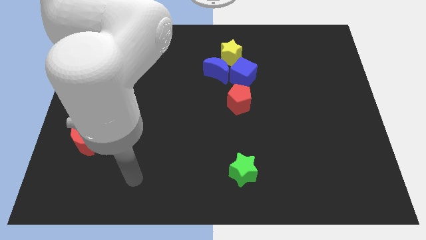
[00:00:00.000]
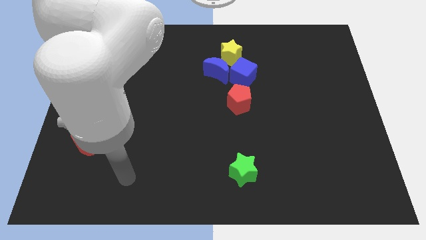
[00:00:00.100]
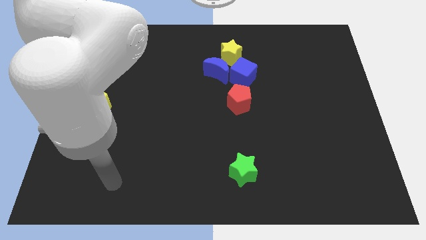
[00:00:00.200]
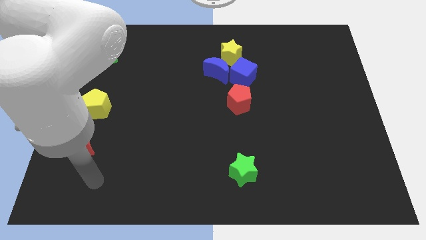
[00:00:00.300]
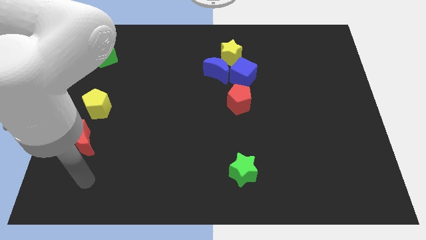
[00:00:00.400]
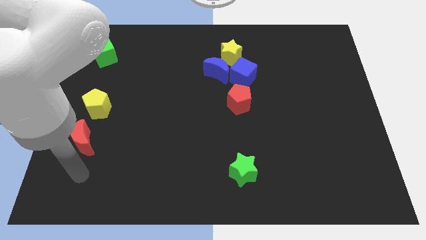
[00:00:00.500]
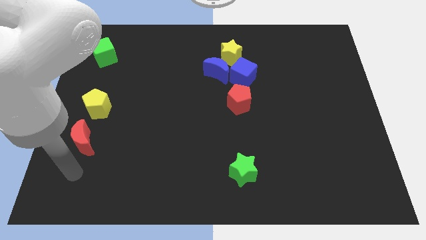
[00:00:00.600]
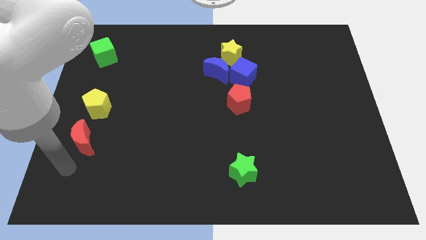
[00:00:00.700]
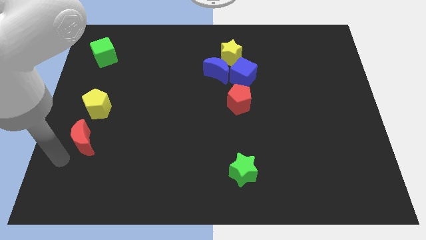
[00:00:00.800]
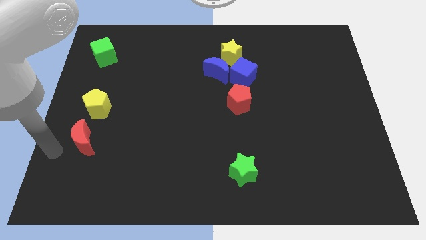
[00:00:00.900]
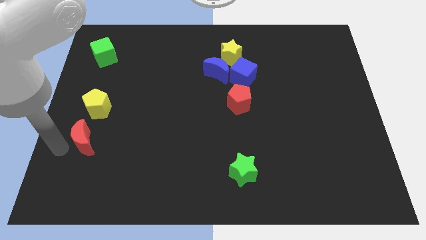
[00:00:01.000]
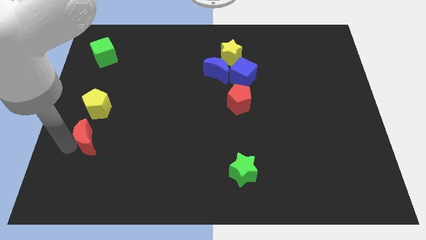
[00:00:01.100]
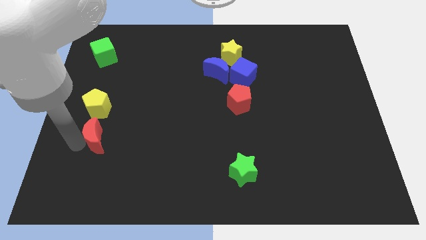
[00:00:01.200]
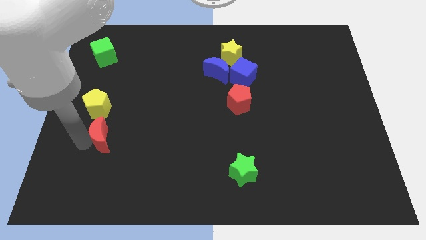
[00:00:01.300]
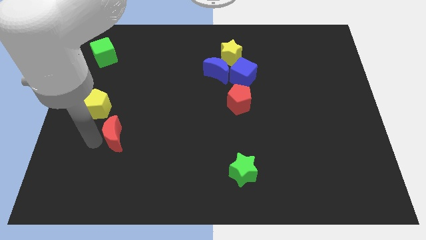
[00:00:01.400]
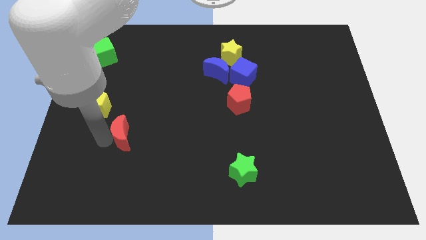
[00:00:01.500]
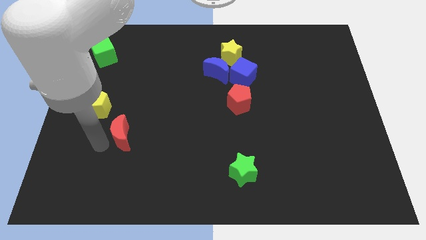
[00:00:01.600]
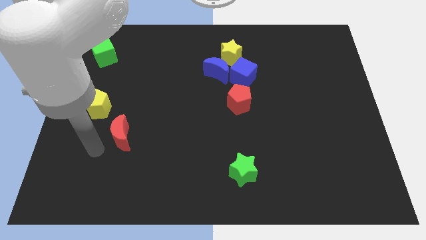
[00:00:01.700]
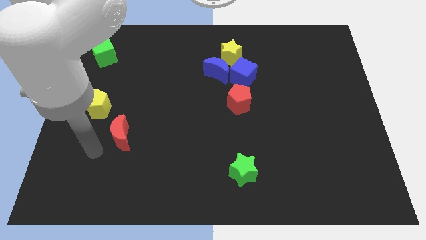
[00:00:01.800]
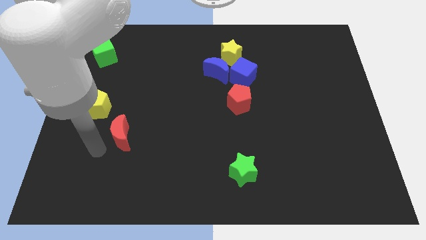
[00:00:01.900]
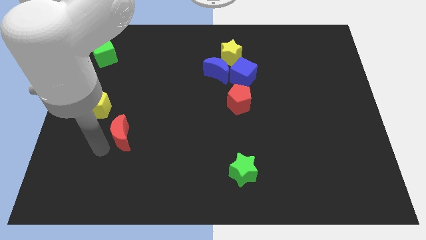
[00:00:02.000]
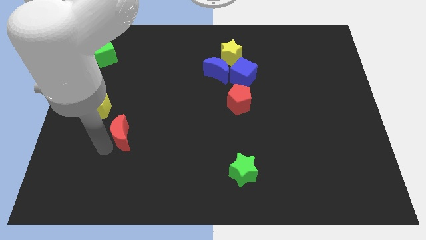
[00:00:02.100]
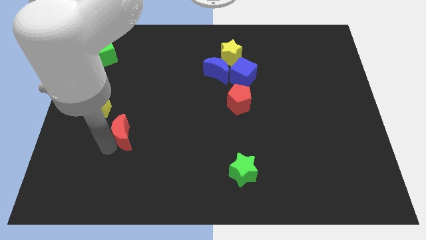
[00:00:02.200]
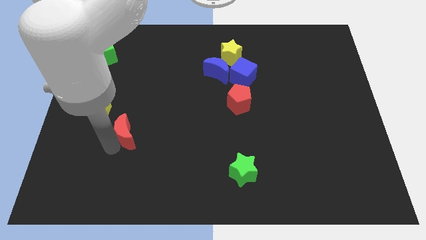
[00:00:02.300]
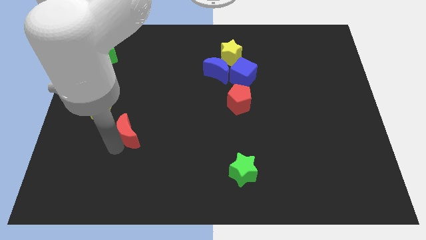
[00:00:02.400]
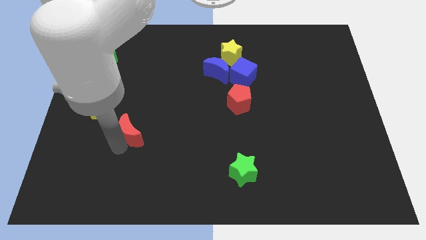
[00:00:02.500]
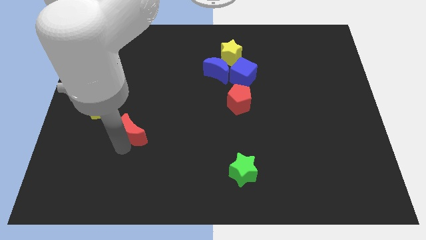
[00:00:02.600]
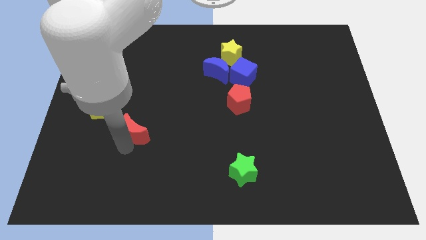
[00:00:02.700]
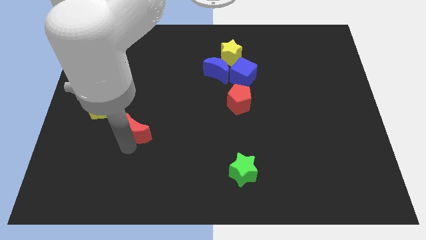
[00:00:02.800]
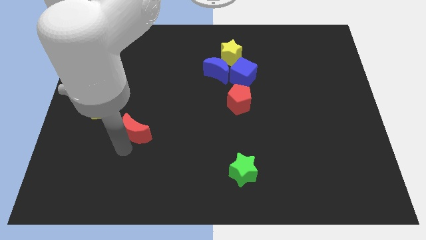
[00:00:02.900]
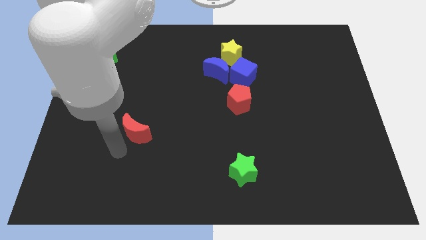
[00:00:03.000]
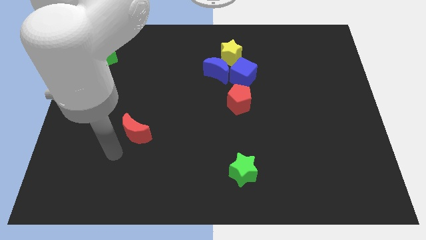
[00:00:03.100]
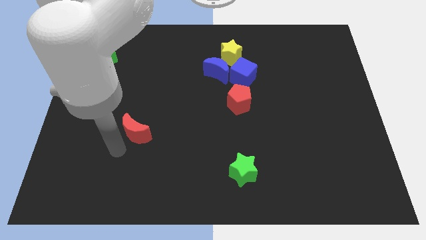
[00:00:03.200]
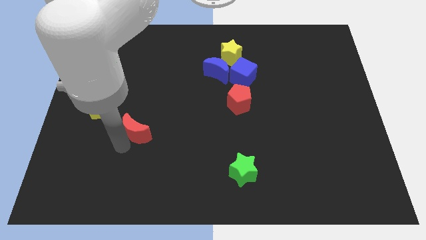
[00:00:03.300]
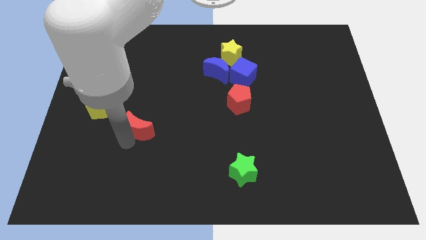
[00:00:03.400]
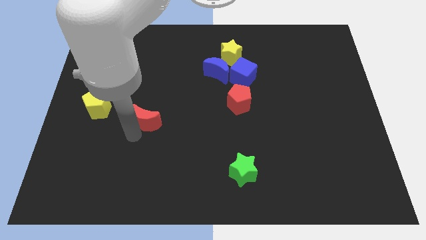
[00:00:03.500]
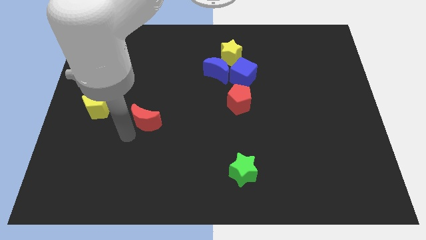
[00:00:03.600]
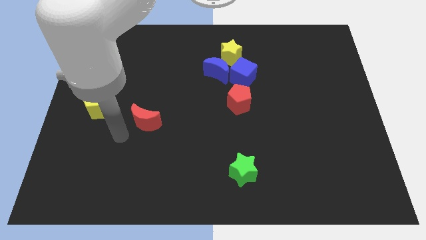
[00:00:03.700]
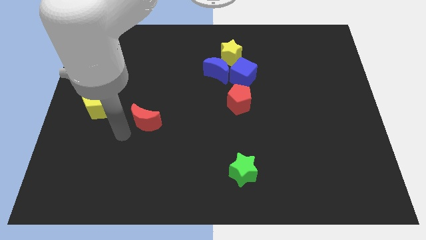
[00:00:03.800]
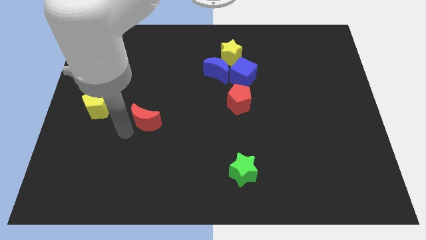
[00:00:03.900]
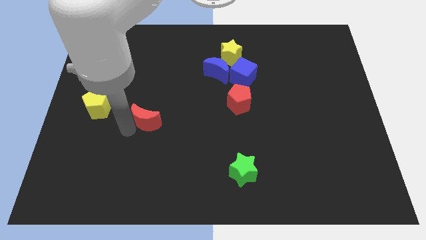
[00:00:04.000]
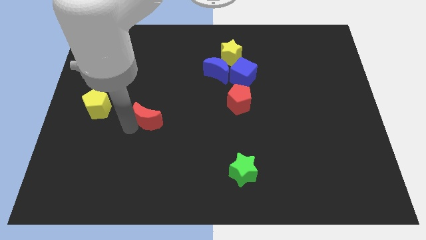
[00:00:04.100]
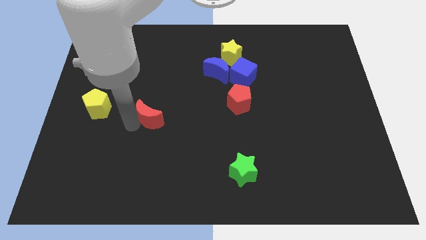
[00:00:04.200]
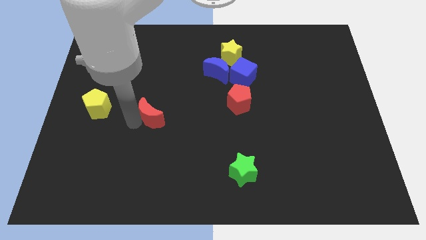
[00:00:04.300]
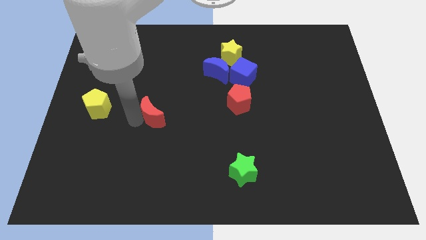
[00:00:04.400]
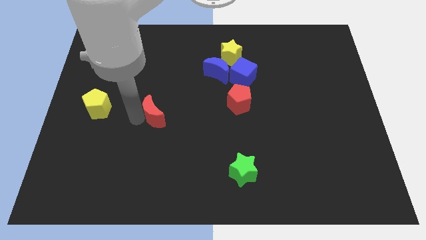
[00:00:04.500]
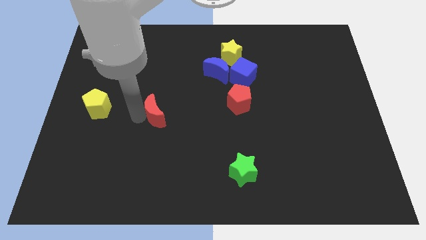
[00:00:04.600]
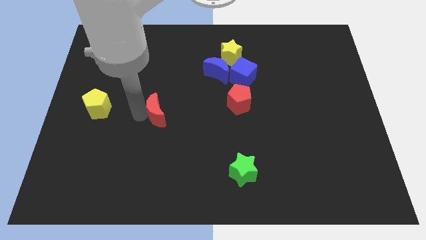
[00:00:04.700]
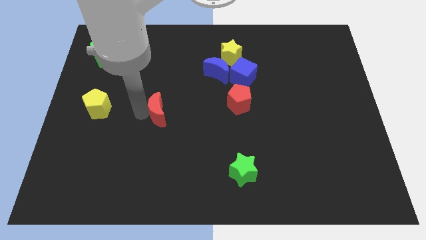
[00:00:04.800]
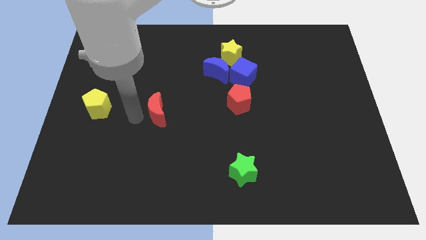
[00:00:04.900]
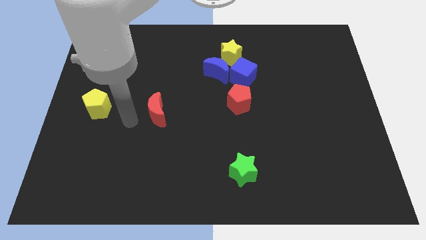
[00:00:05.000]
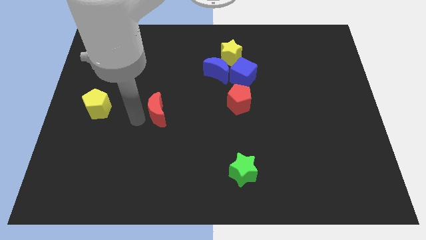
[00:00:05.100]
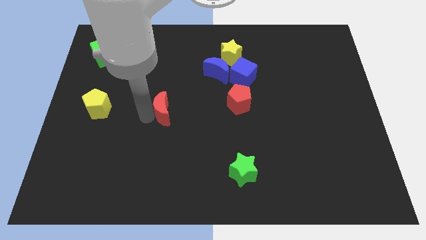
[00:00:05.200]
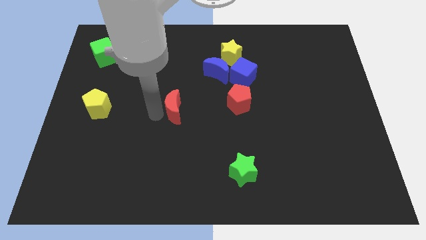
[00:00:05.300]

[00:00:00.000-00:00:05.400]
push the red moon just left of the red pentagon

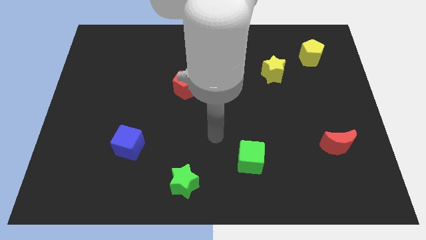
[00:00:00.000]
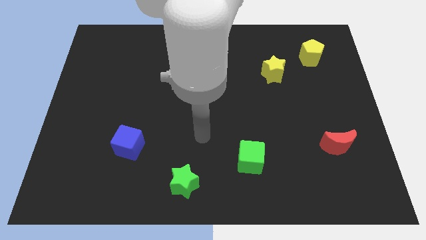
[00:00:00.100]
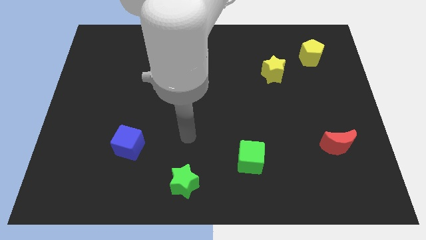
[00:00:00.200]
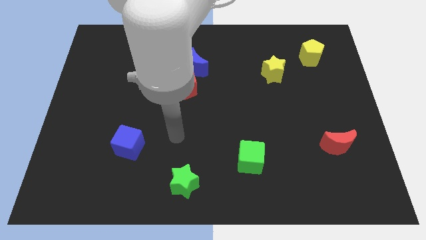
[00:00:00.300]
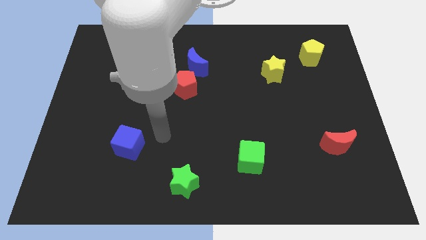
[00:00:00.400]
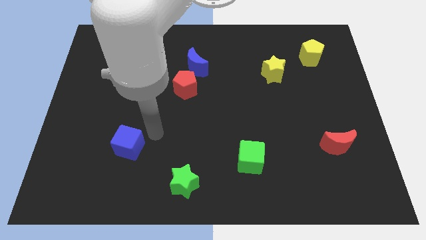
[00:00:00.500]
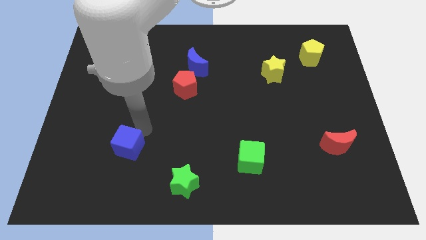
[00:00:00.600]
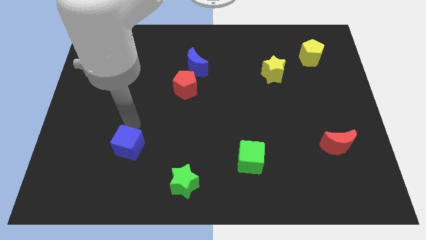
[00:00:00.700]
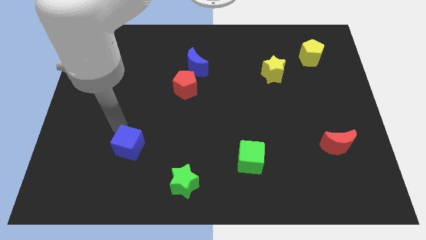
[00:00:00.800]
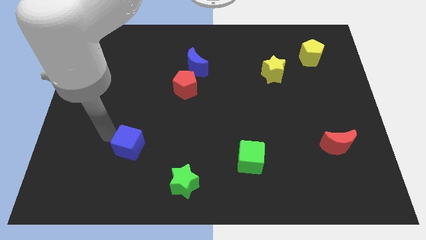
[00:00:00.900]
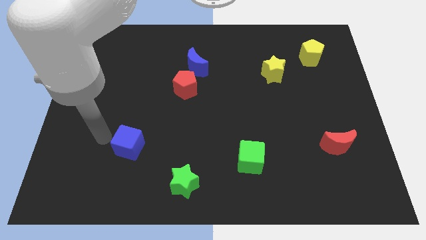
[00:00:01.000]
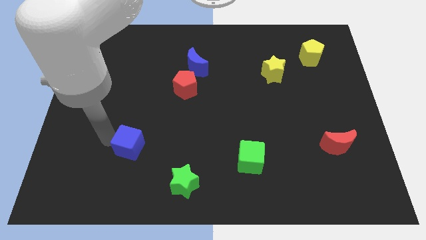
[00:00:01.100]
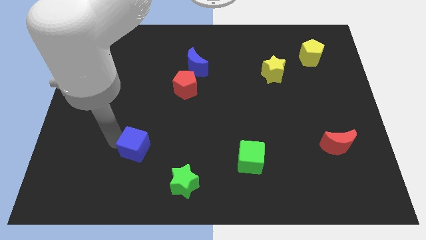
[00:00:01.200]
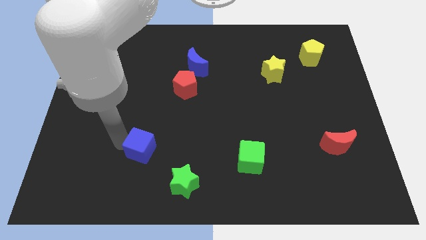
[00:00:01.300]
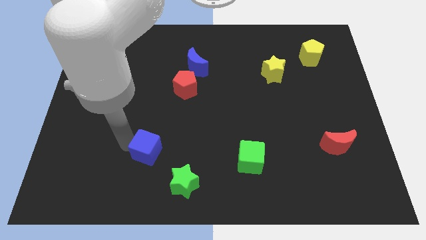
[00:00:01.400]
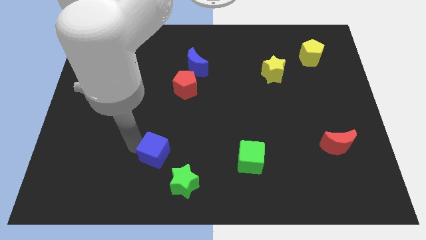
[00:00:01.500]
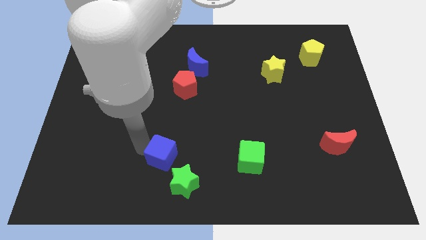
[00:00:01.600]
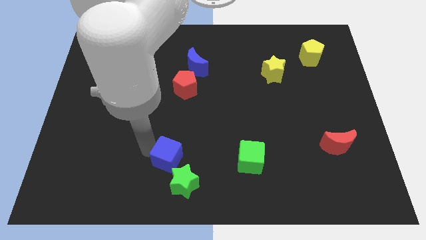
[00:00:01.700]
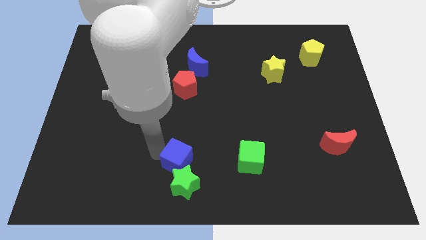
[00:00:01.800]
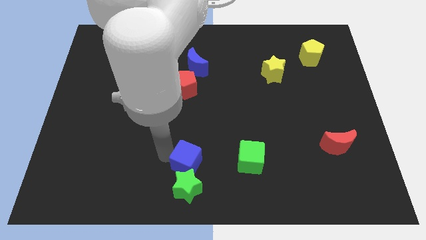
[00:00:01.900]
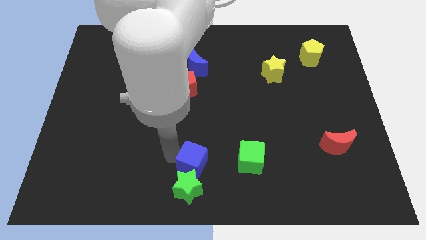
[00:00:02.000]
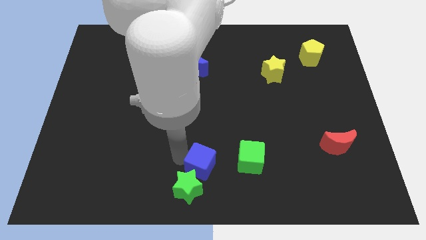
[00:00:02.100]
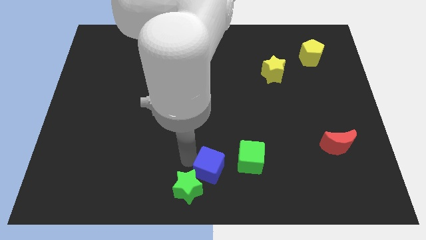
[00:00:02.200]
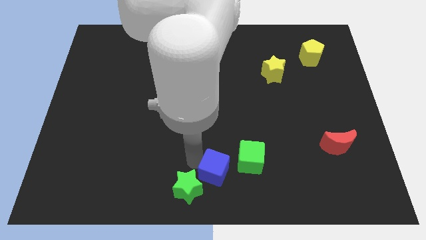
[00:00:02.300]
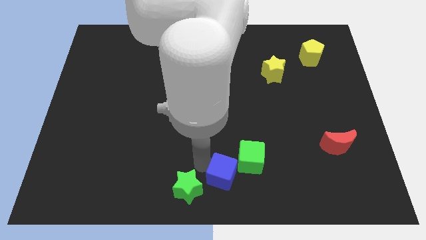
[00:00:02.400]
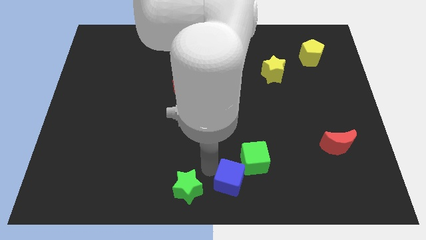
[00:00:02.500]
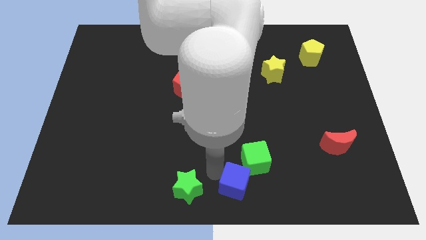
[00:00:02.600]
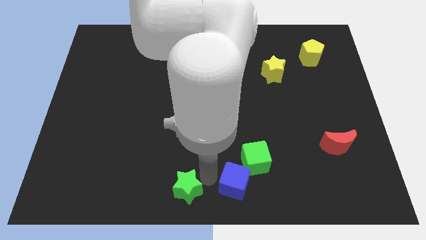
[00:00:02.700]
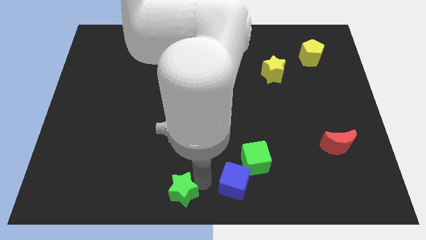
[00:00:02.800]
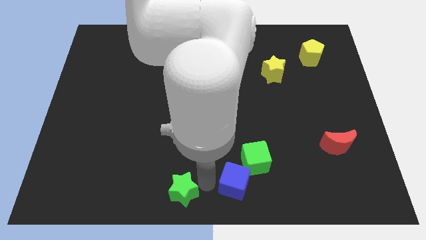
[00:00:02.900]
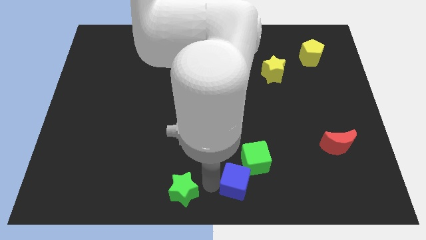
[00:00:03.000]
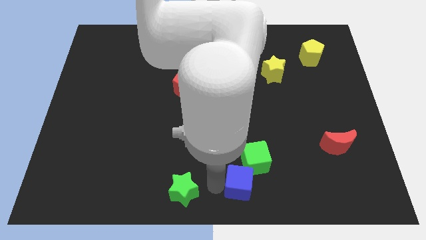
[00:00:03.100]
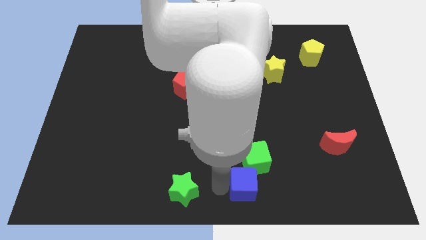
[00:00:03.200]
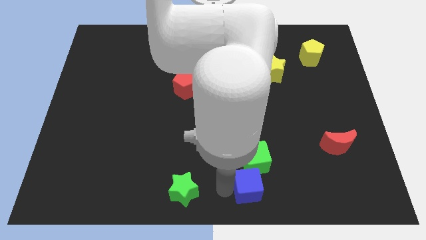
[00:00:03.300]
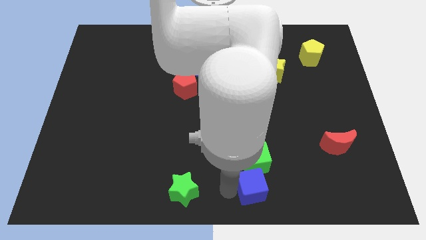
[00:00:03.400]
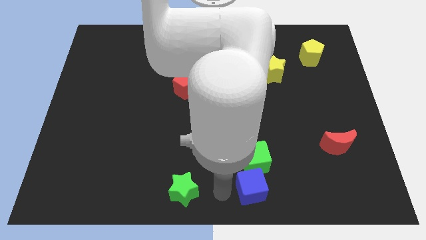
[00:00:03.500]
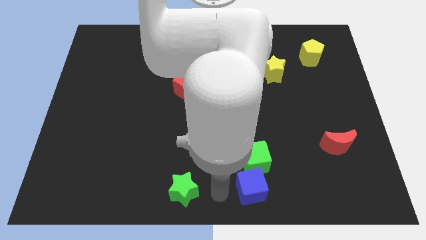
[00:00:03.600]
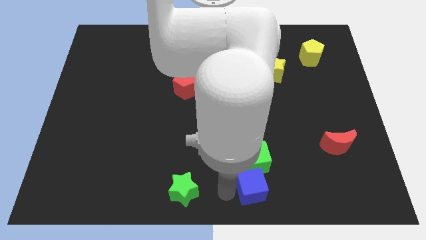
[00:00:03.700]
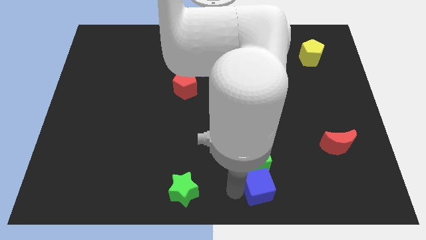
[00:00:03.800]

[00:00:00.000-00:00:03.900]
put the blue cube to the bottom right of the green cube
